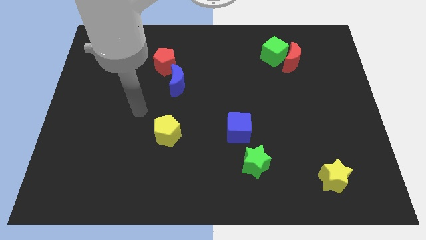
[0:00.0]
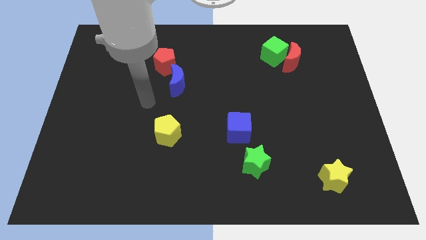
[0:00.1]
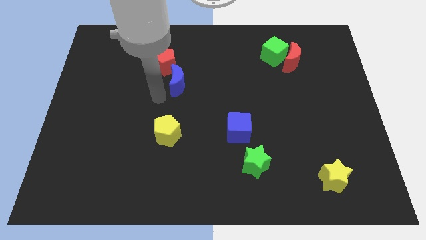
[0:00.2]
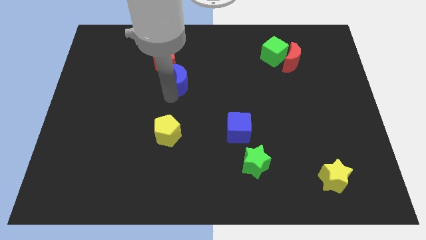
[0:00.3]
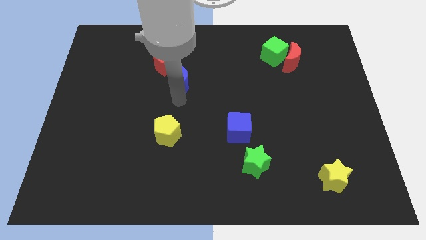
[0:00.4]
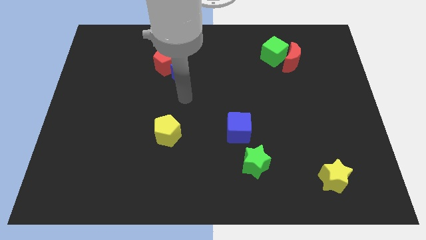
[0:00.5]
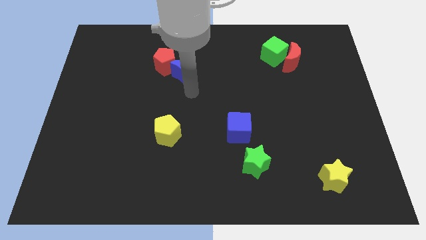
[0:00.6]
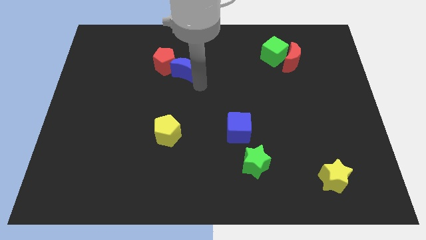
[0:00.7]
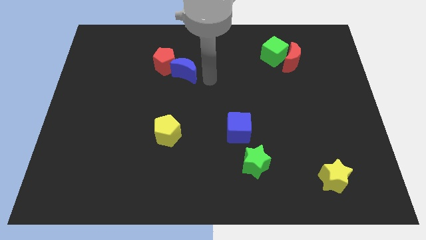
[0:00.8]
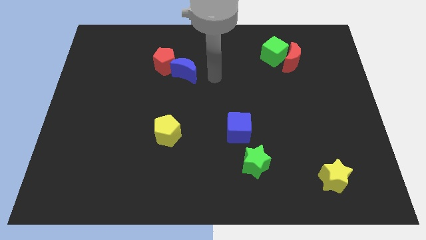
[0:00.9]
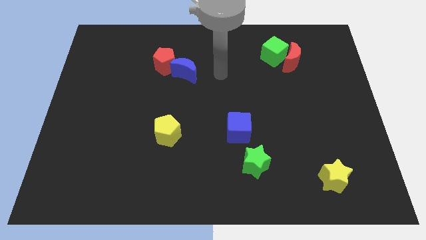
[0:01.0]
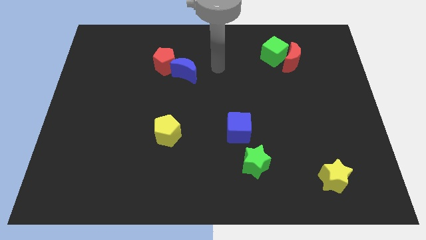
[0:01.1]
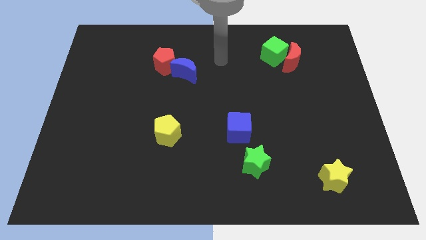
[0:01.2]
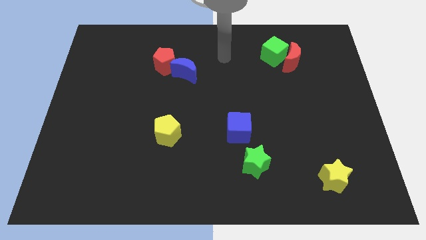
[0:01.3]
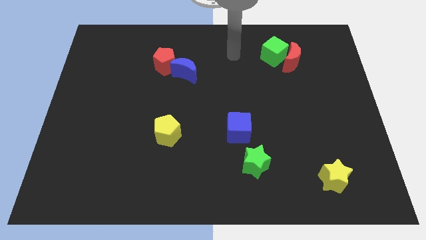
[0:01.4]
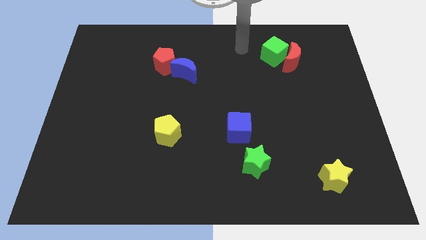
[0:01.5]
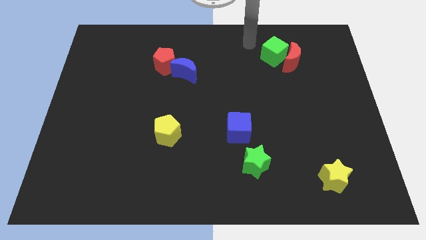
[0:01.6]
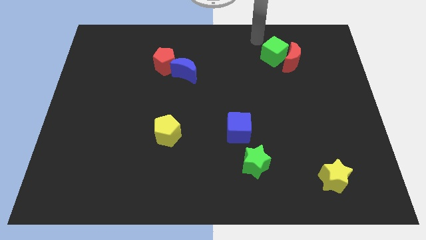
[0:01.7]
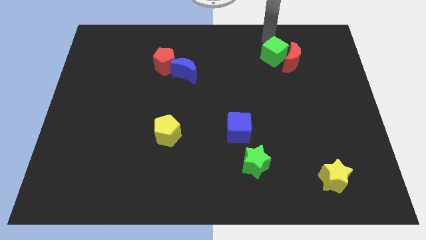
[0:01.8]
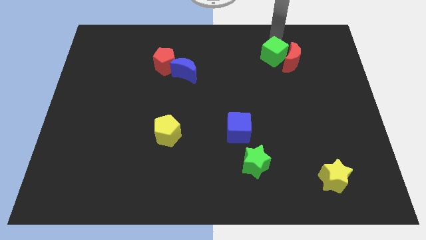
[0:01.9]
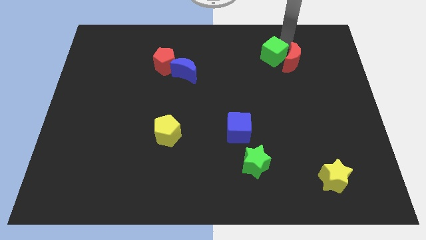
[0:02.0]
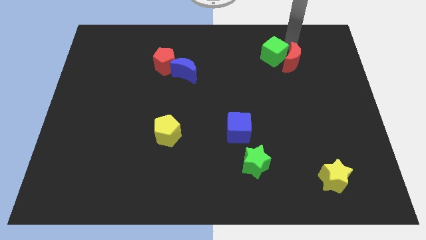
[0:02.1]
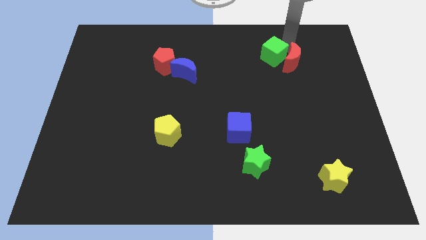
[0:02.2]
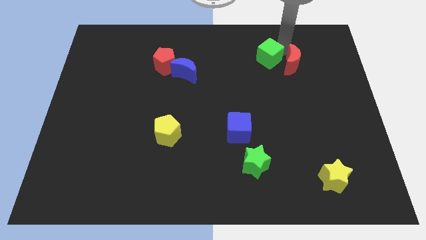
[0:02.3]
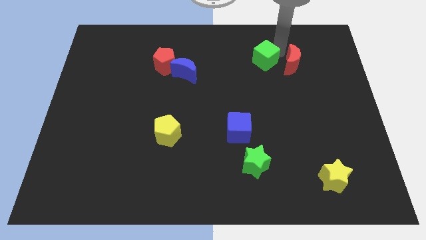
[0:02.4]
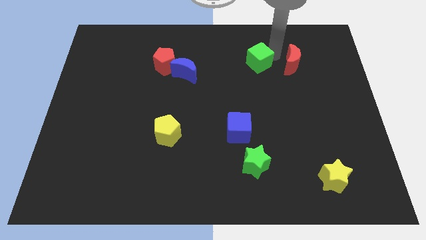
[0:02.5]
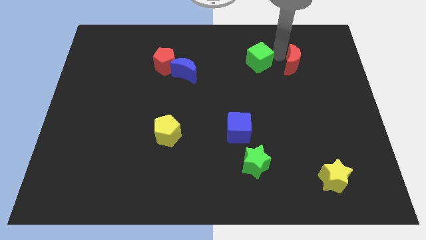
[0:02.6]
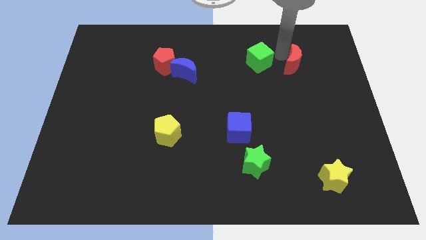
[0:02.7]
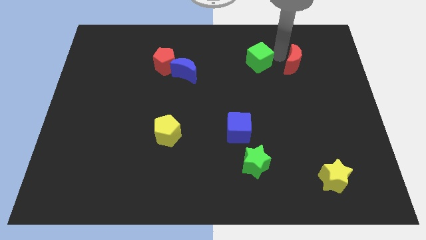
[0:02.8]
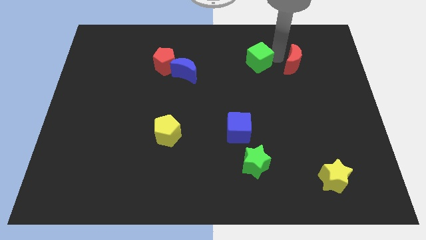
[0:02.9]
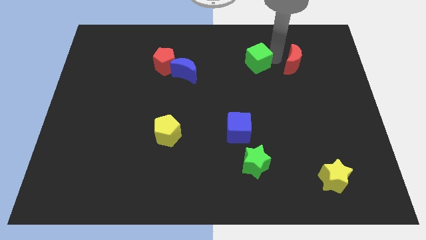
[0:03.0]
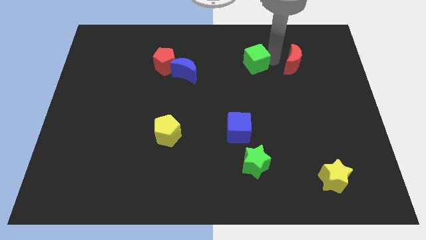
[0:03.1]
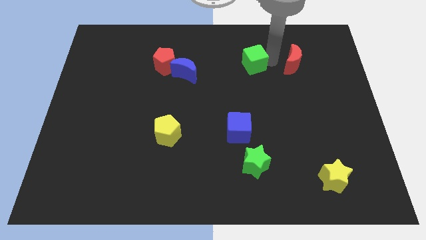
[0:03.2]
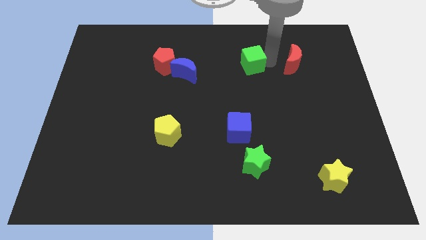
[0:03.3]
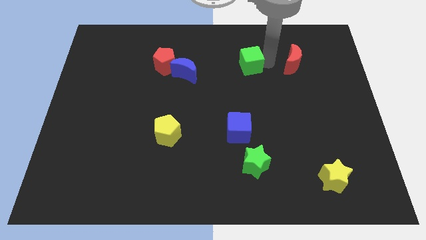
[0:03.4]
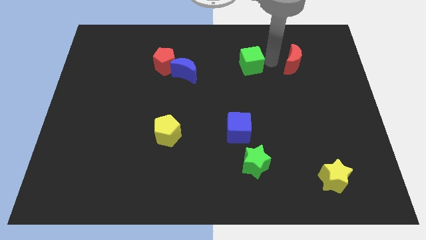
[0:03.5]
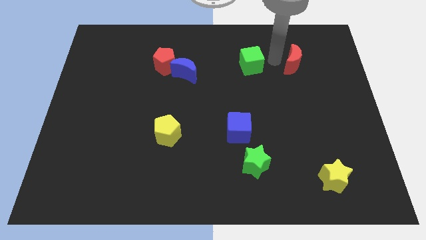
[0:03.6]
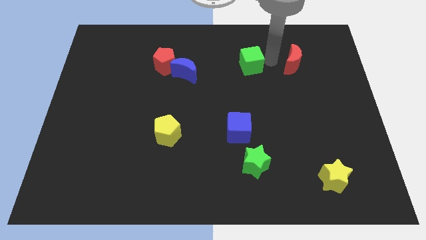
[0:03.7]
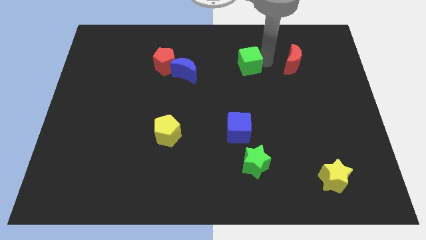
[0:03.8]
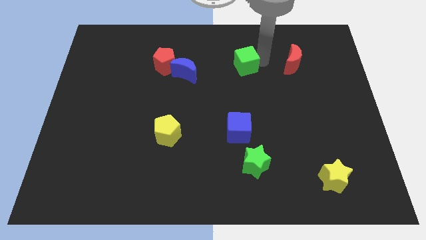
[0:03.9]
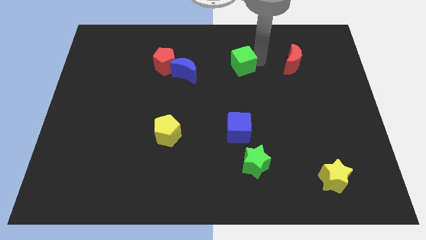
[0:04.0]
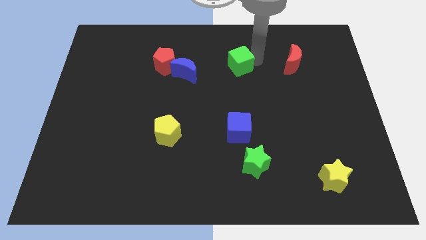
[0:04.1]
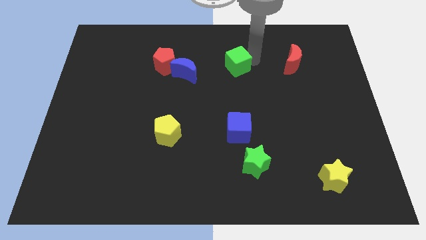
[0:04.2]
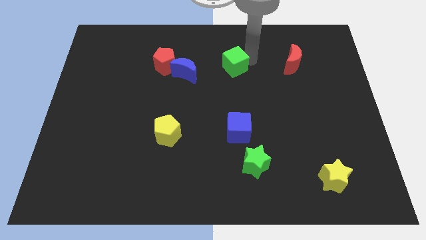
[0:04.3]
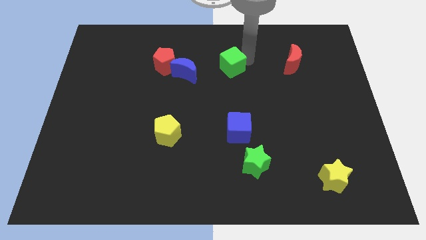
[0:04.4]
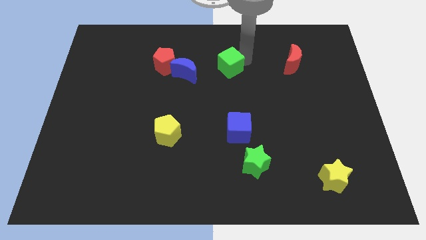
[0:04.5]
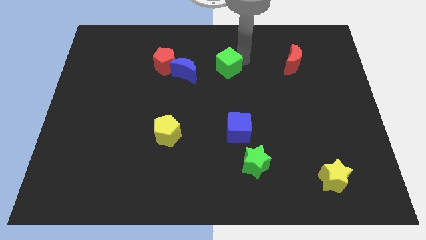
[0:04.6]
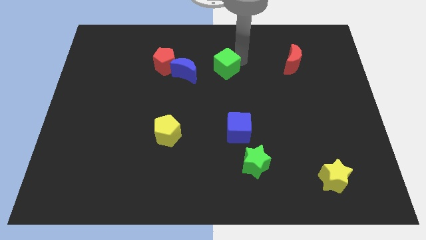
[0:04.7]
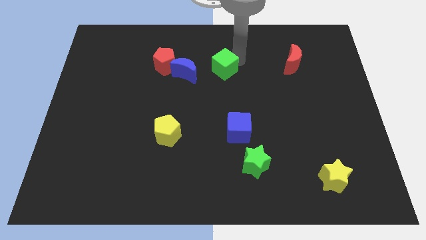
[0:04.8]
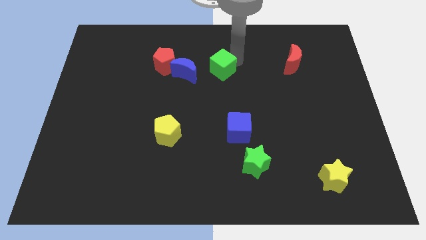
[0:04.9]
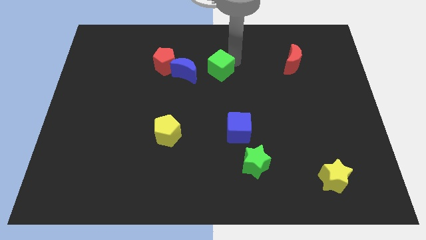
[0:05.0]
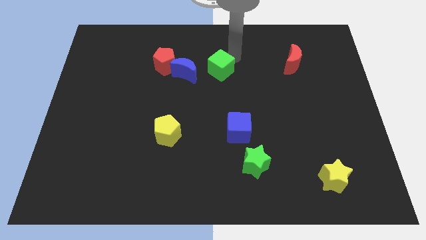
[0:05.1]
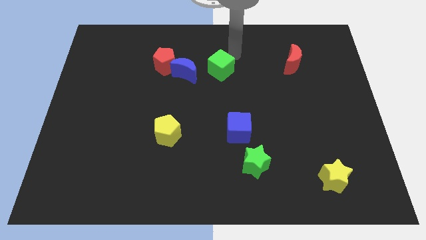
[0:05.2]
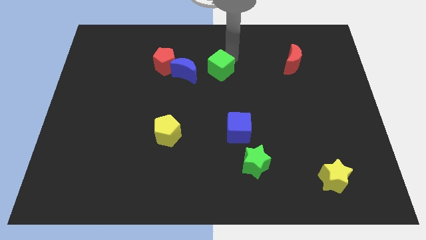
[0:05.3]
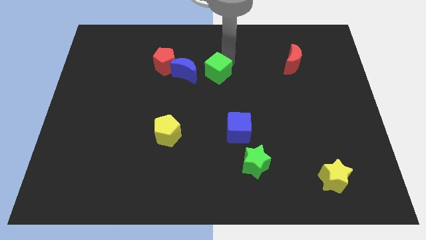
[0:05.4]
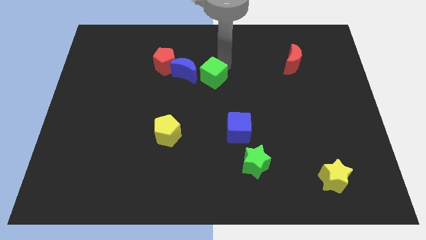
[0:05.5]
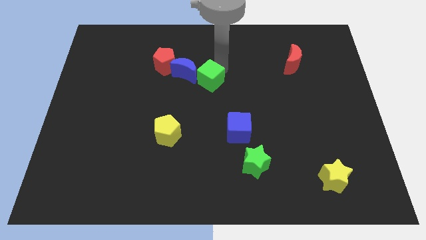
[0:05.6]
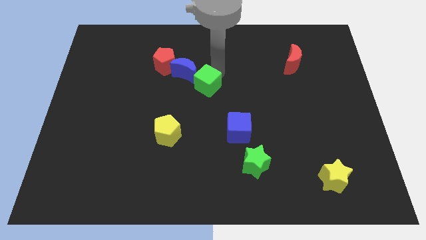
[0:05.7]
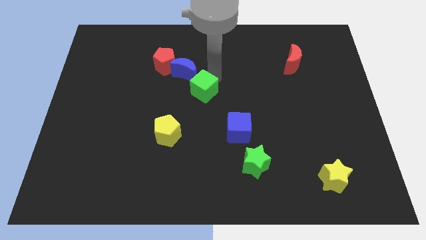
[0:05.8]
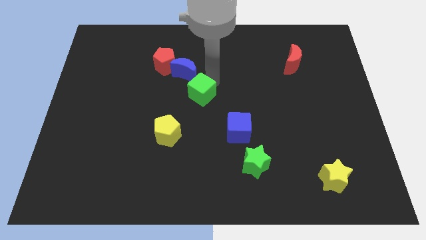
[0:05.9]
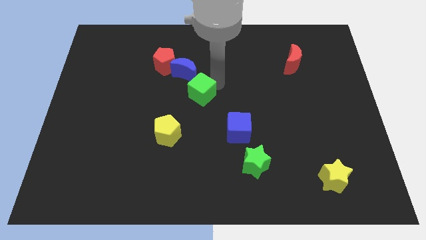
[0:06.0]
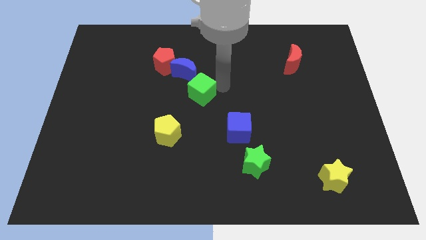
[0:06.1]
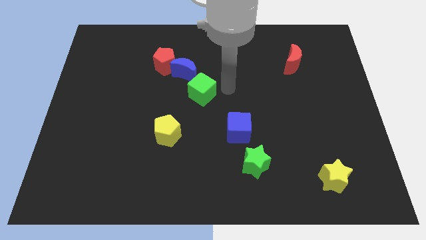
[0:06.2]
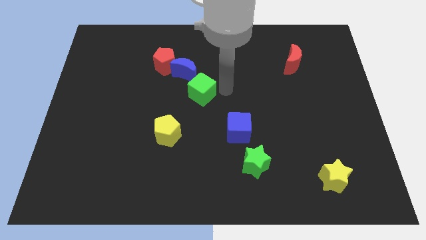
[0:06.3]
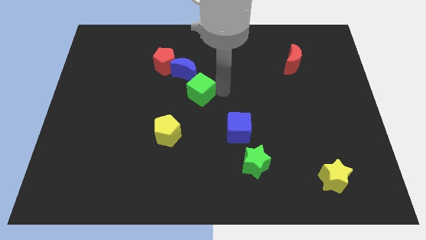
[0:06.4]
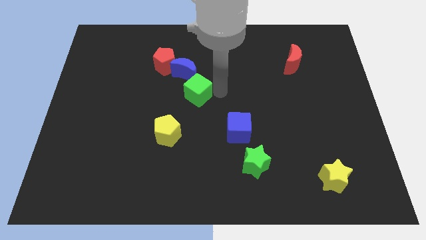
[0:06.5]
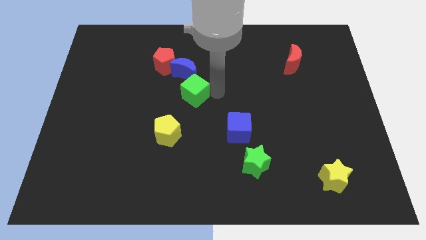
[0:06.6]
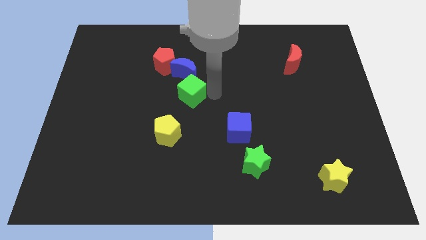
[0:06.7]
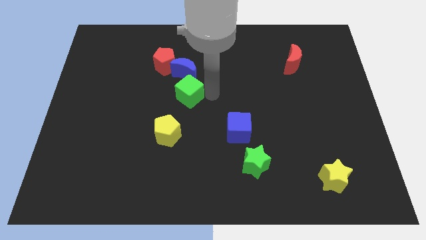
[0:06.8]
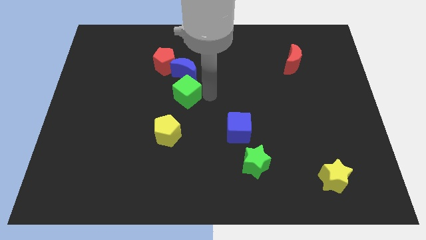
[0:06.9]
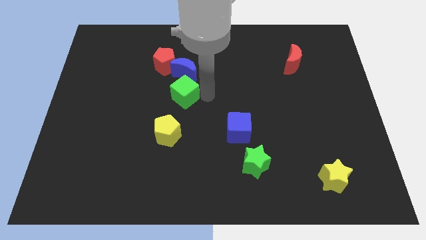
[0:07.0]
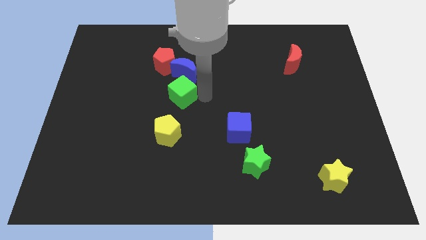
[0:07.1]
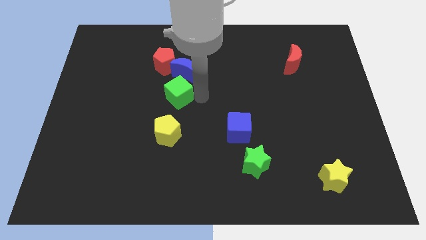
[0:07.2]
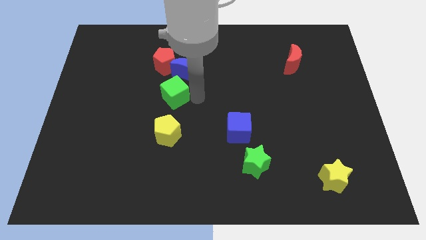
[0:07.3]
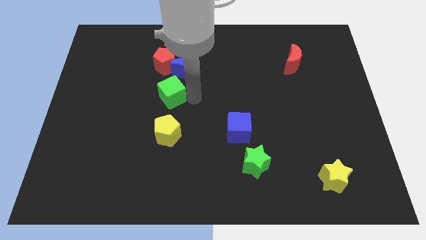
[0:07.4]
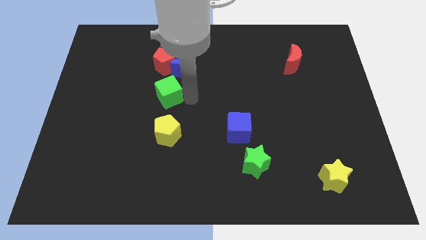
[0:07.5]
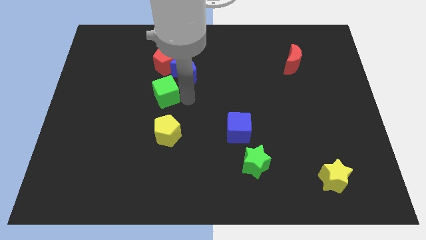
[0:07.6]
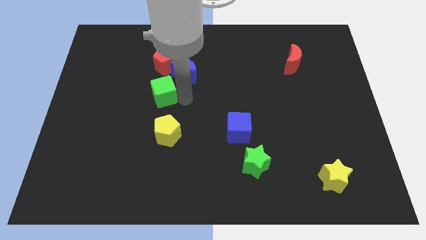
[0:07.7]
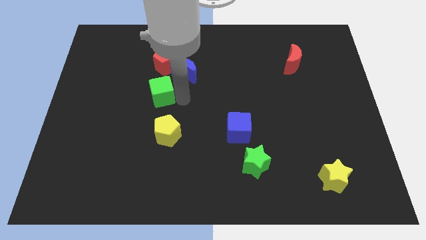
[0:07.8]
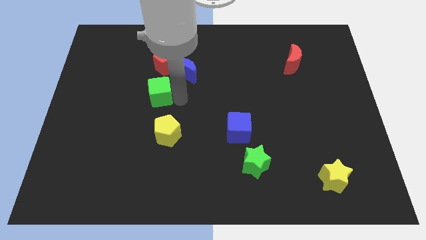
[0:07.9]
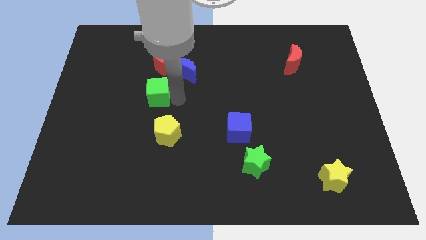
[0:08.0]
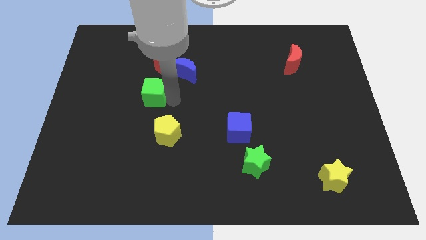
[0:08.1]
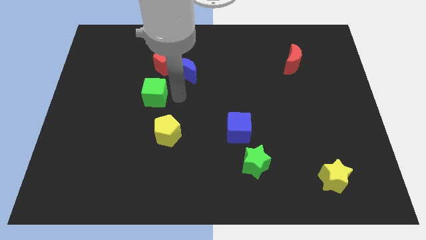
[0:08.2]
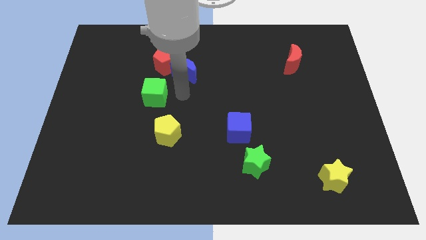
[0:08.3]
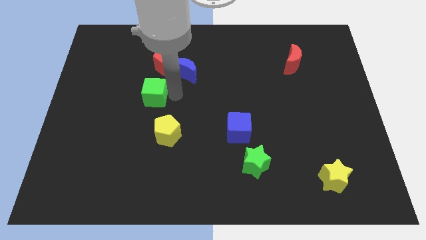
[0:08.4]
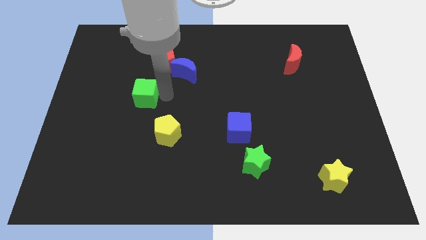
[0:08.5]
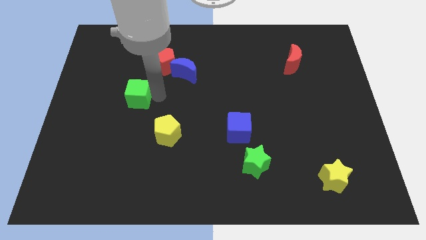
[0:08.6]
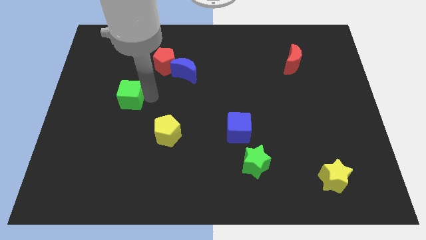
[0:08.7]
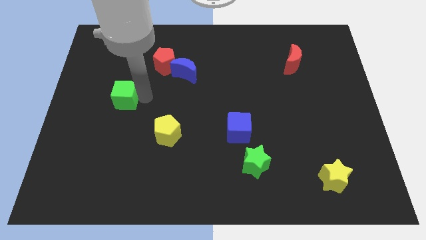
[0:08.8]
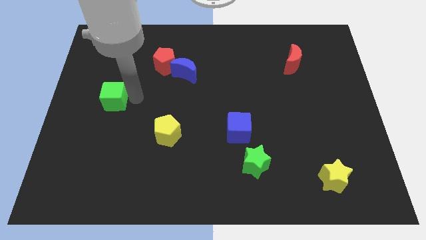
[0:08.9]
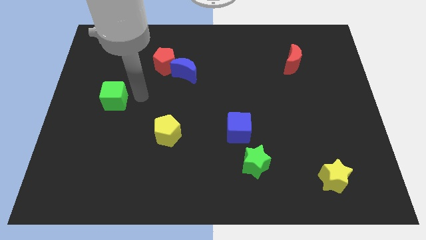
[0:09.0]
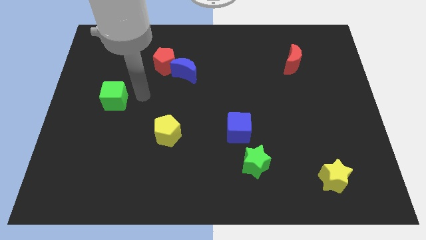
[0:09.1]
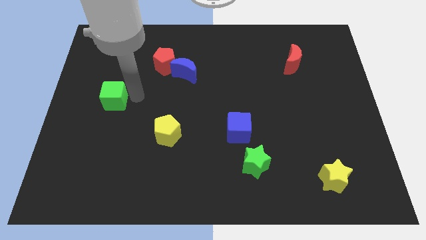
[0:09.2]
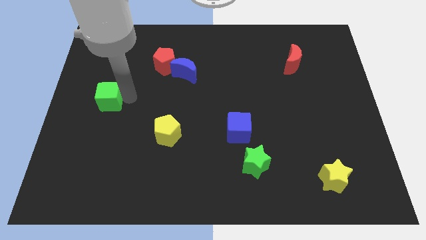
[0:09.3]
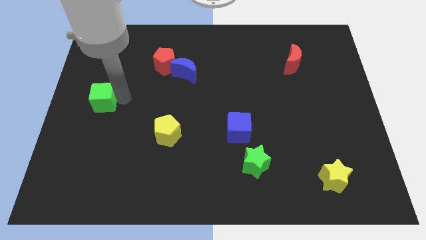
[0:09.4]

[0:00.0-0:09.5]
move the green cube to the left side of the board
